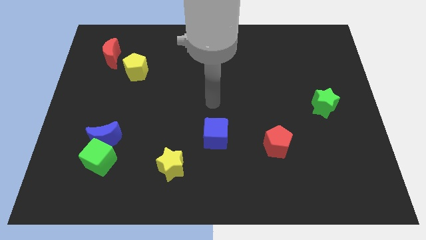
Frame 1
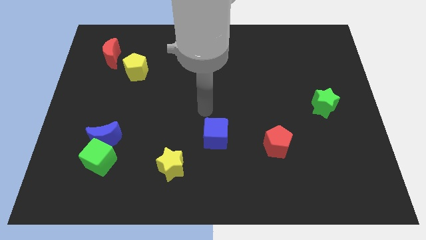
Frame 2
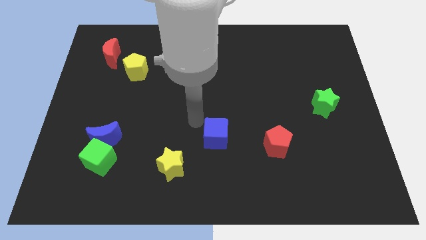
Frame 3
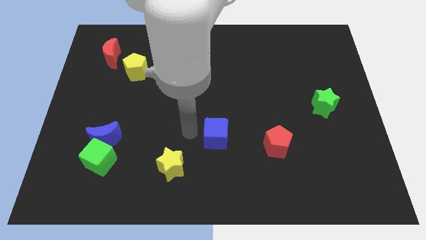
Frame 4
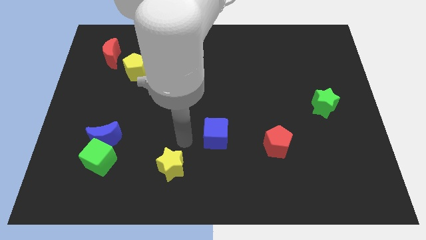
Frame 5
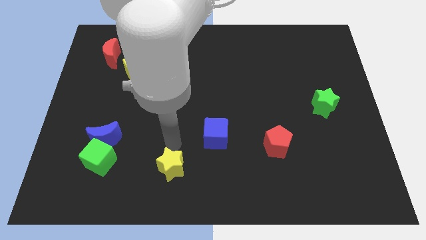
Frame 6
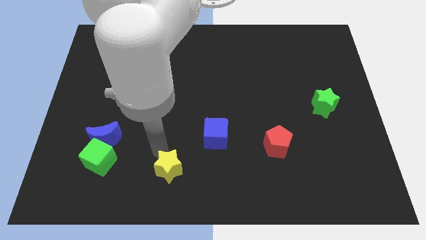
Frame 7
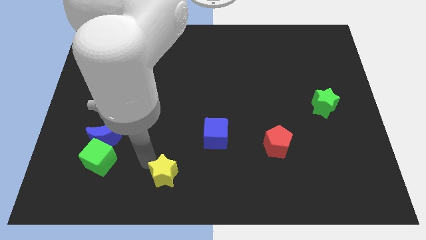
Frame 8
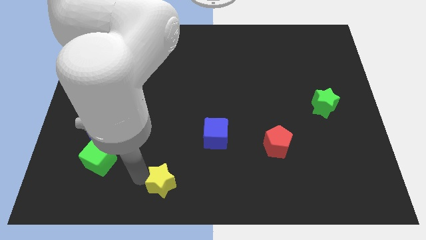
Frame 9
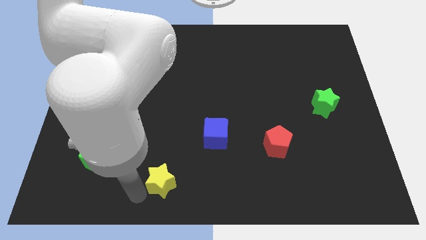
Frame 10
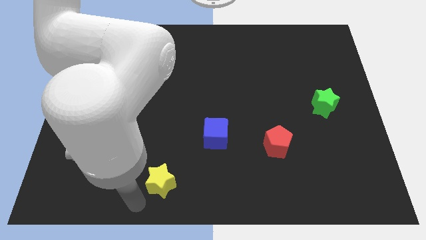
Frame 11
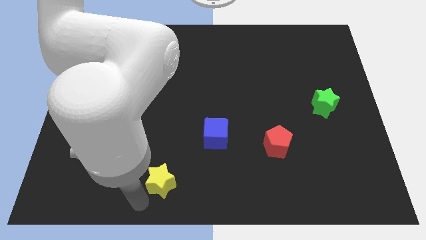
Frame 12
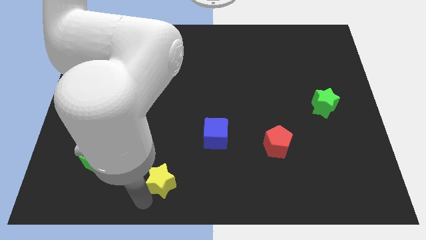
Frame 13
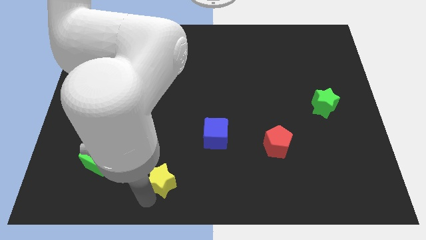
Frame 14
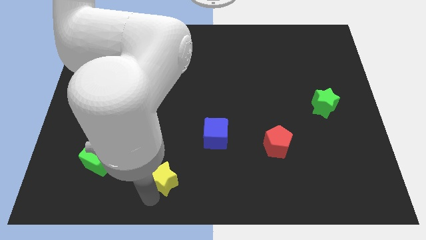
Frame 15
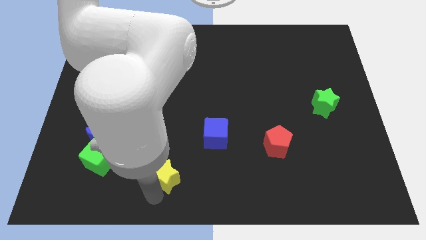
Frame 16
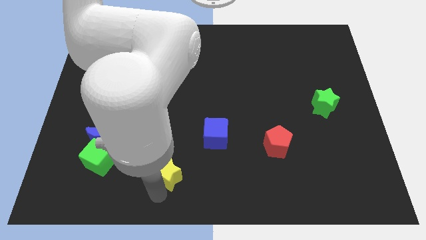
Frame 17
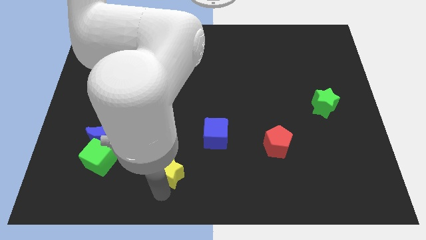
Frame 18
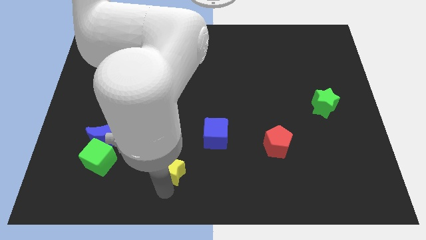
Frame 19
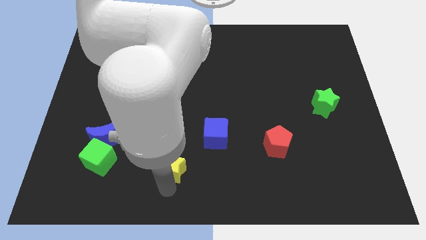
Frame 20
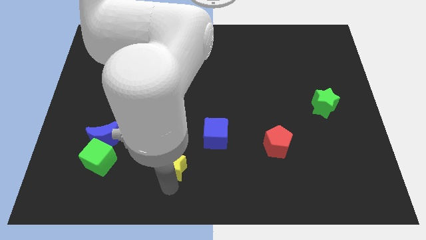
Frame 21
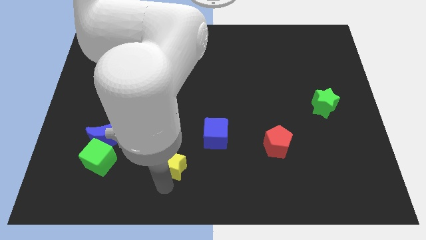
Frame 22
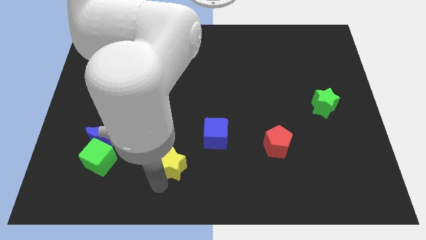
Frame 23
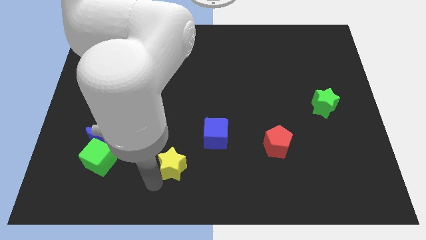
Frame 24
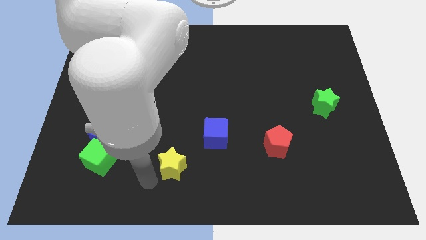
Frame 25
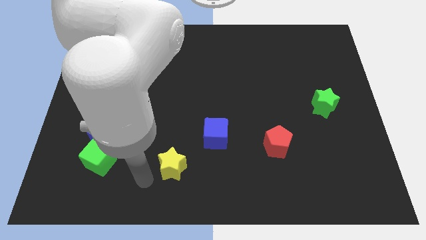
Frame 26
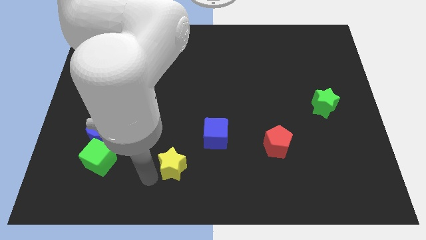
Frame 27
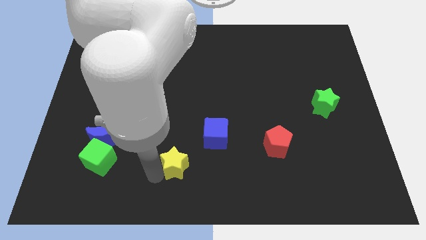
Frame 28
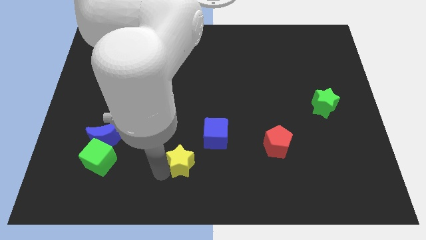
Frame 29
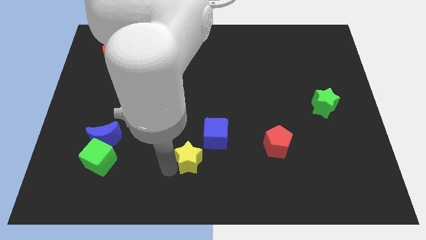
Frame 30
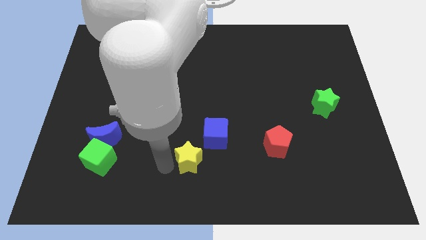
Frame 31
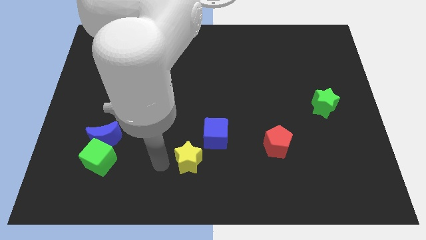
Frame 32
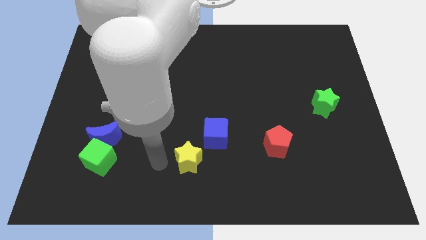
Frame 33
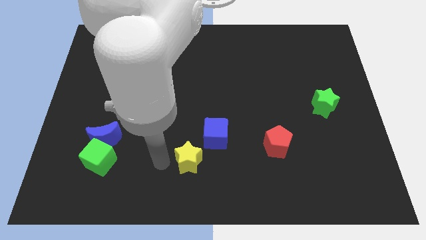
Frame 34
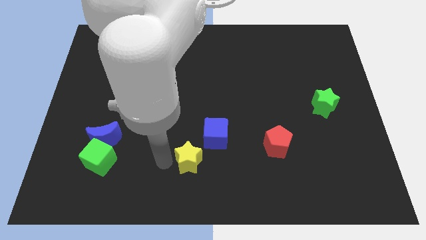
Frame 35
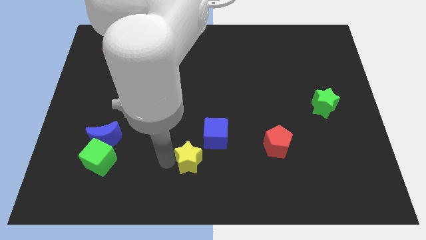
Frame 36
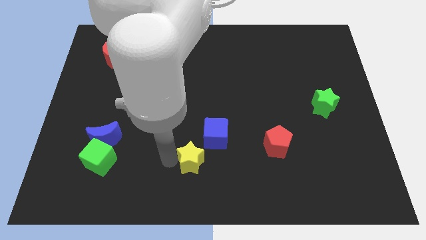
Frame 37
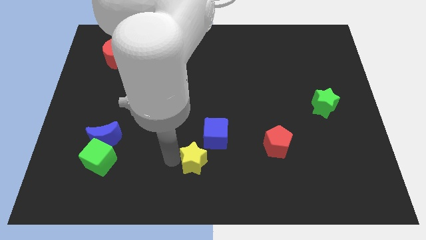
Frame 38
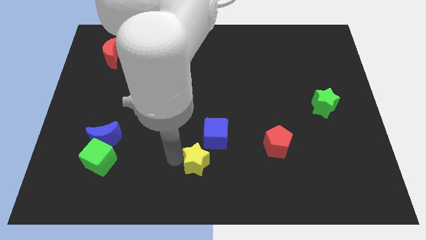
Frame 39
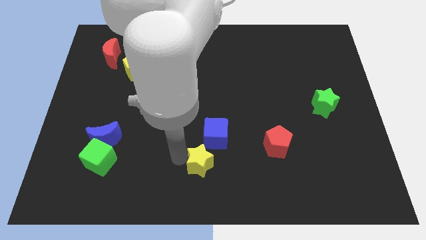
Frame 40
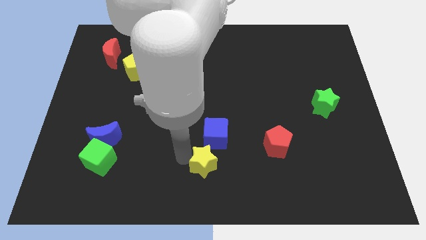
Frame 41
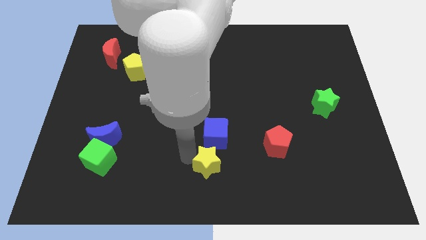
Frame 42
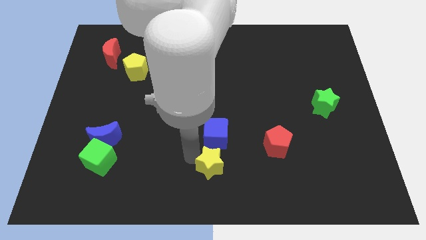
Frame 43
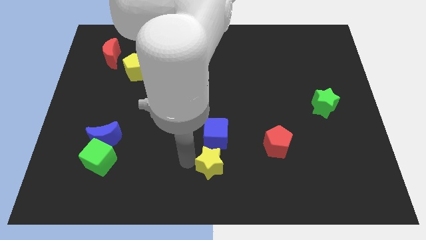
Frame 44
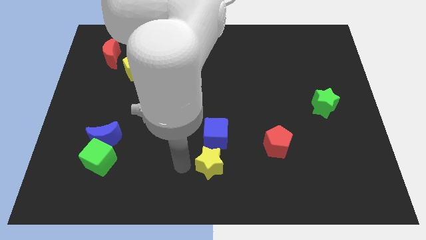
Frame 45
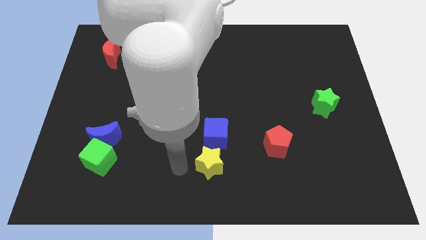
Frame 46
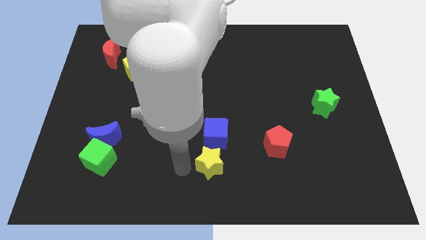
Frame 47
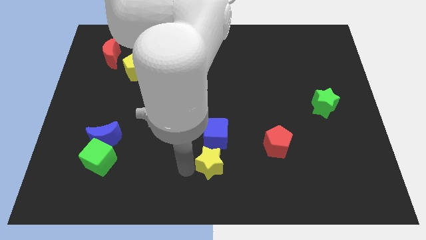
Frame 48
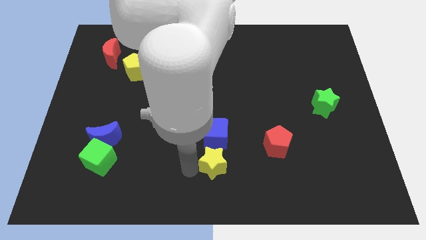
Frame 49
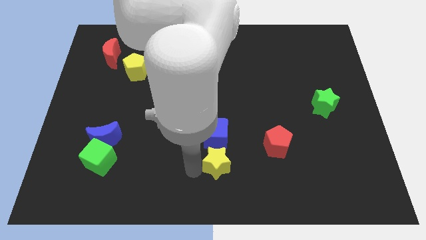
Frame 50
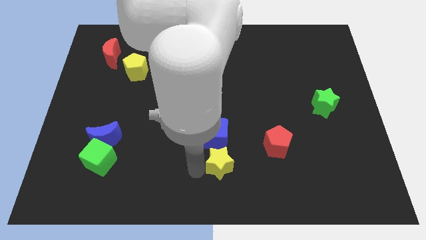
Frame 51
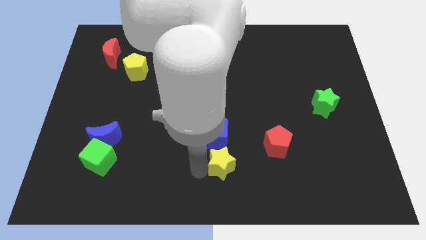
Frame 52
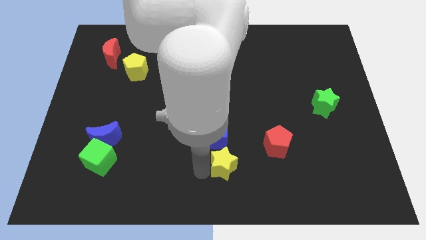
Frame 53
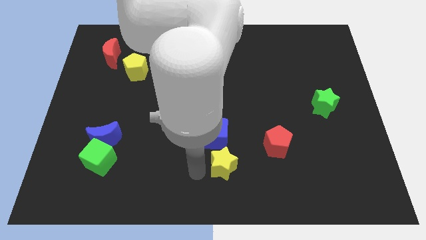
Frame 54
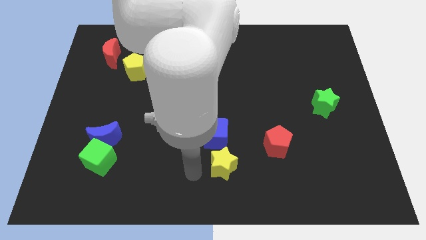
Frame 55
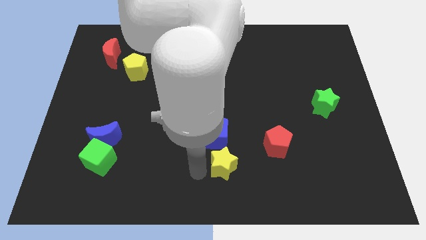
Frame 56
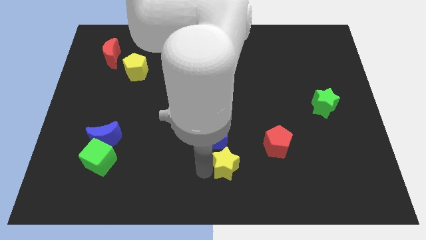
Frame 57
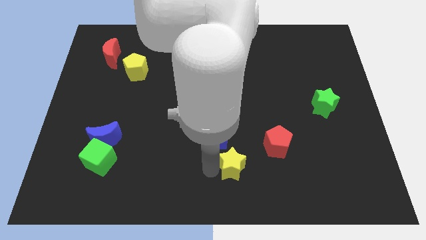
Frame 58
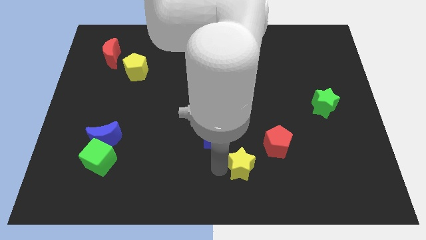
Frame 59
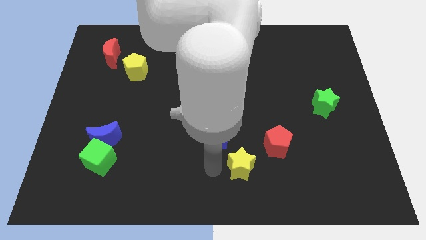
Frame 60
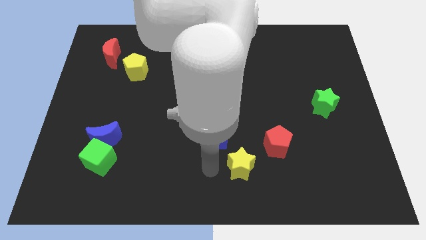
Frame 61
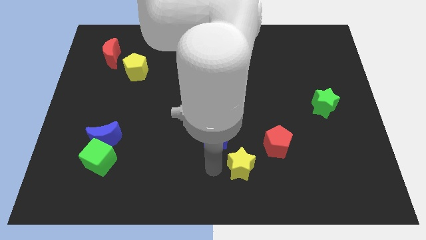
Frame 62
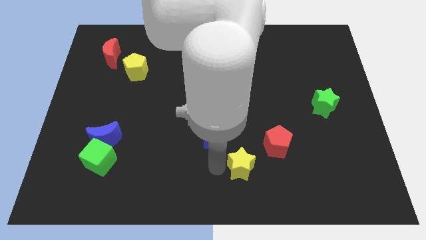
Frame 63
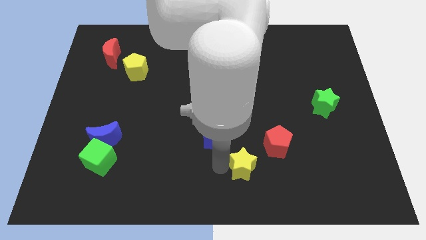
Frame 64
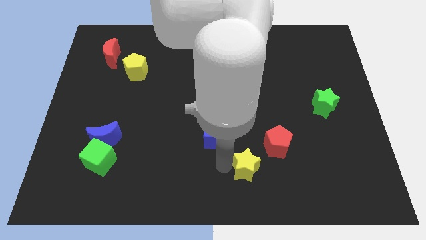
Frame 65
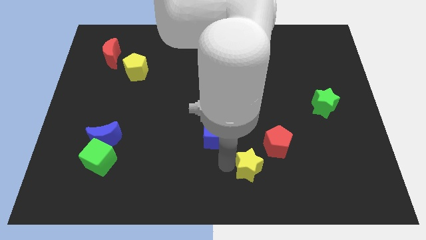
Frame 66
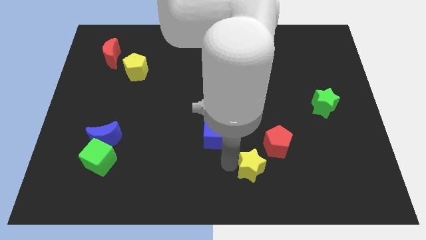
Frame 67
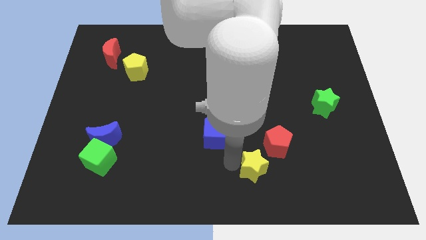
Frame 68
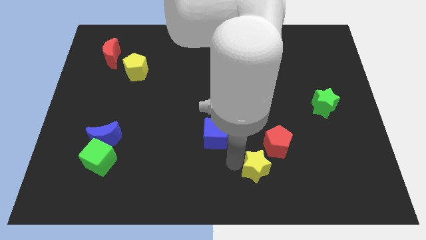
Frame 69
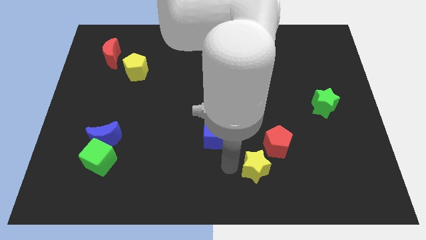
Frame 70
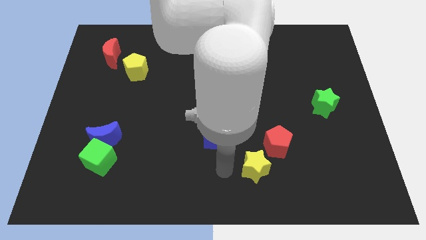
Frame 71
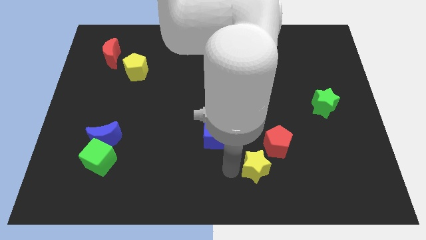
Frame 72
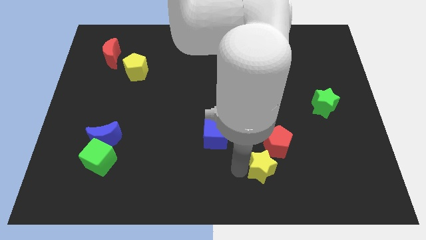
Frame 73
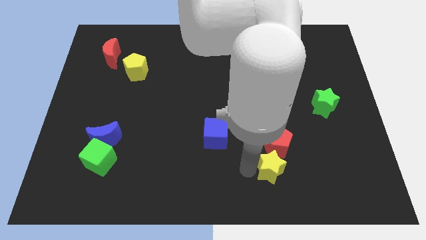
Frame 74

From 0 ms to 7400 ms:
slide the yellow star to the right

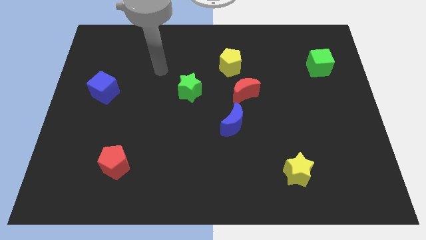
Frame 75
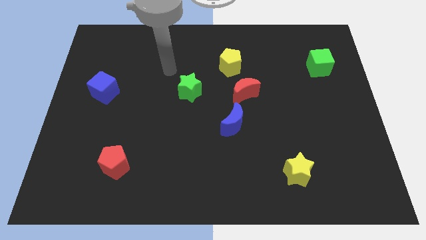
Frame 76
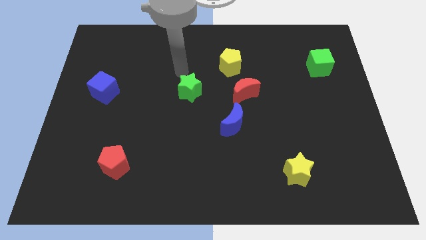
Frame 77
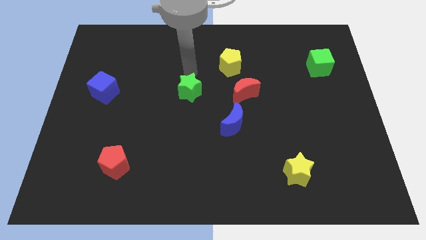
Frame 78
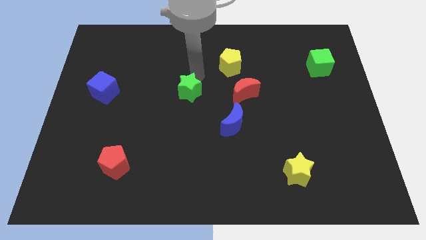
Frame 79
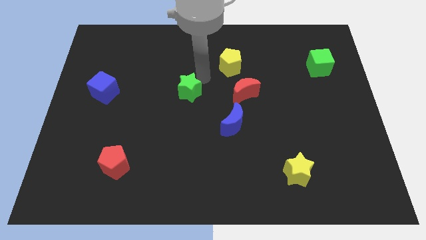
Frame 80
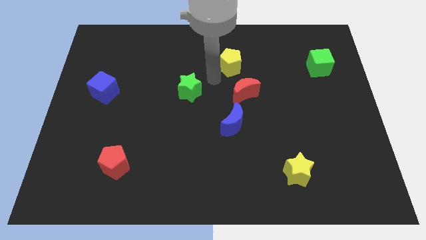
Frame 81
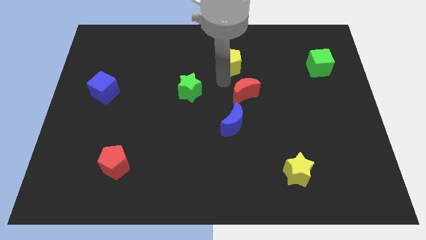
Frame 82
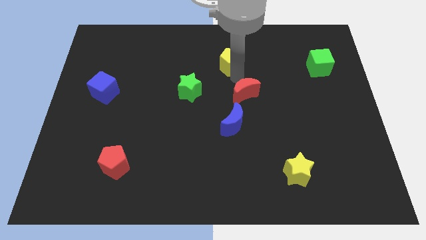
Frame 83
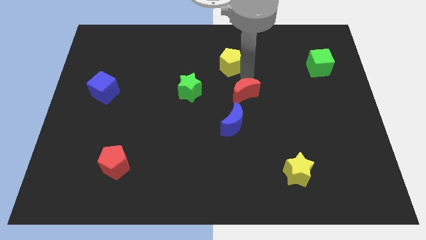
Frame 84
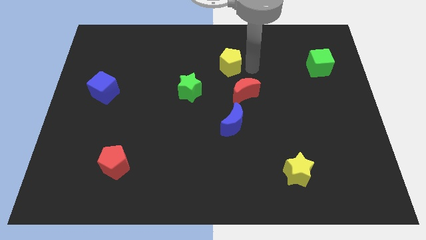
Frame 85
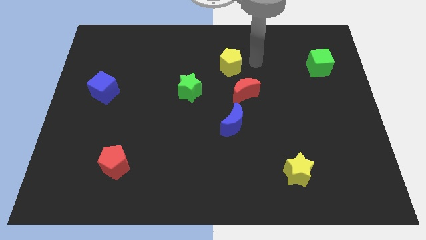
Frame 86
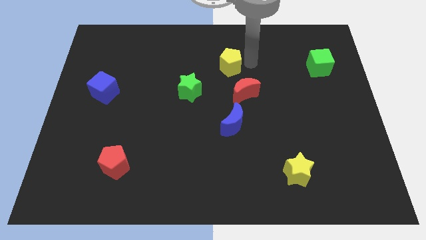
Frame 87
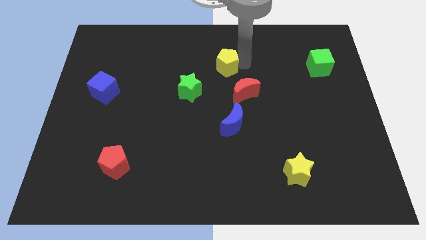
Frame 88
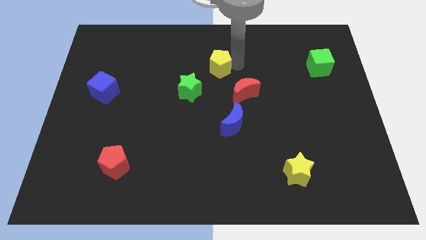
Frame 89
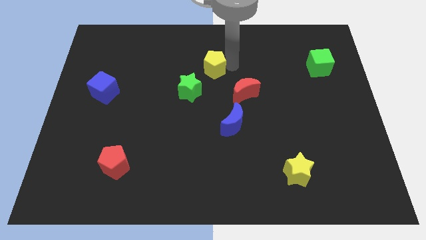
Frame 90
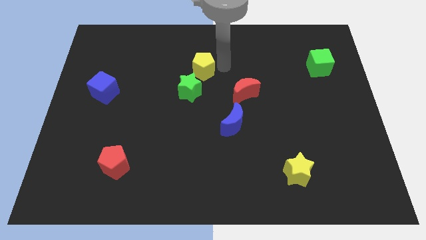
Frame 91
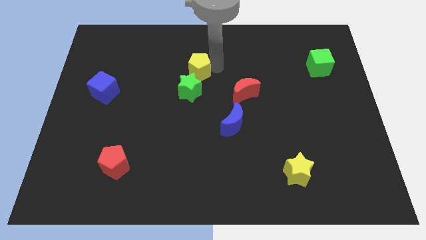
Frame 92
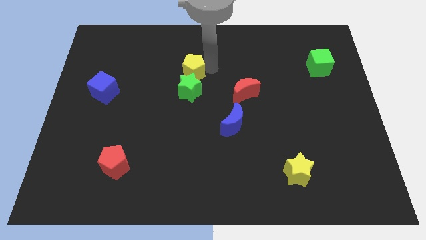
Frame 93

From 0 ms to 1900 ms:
push the yellow pentagon downwards and then left slightly
